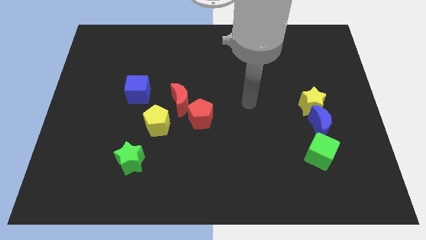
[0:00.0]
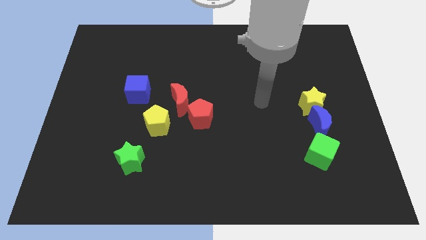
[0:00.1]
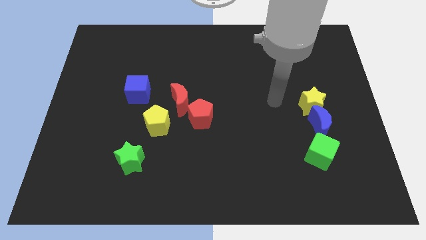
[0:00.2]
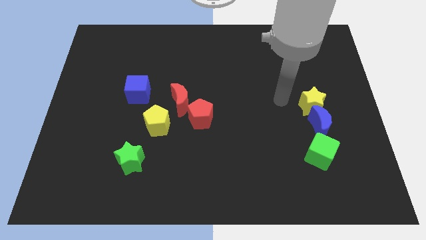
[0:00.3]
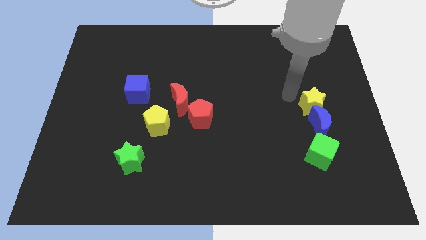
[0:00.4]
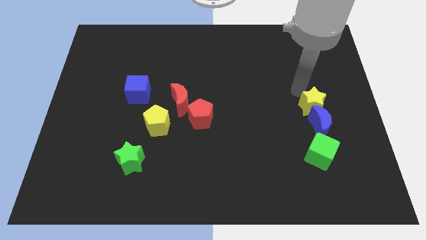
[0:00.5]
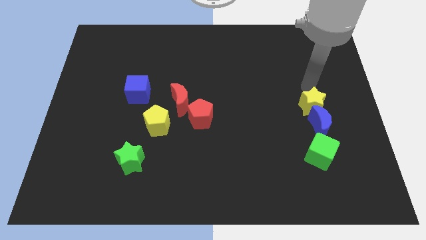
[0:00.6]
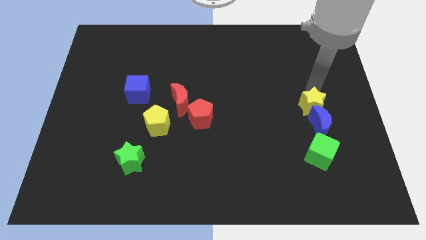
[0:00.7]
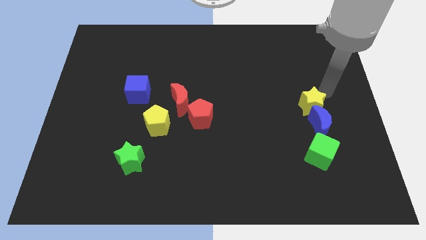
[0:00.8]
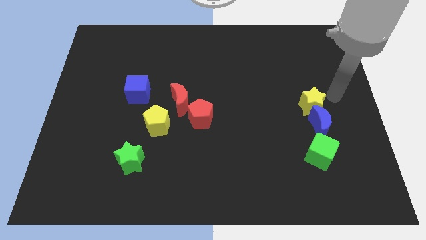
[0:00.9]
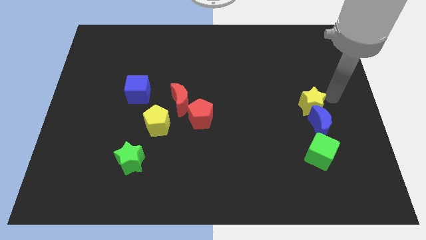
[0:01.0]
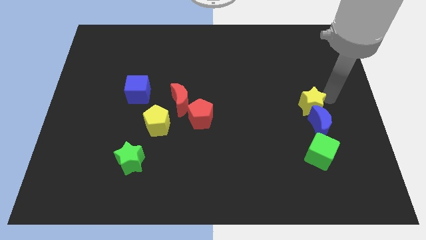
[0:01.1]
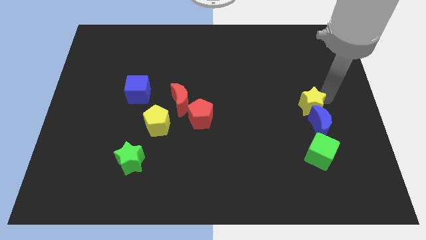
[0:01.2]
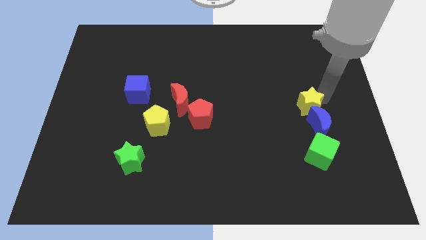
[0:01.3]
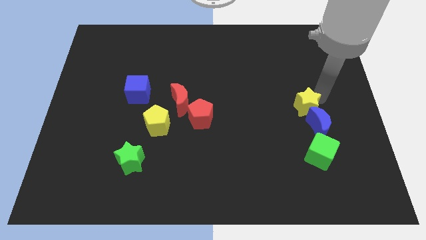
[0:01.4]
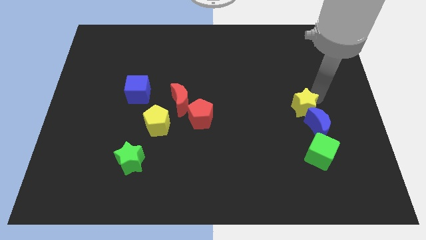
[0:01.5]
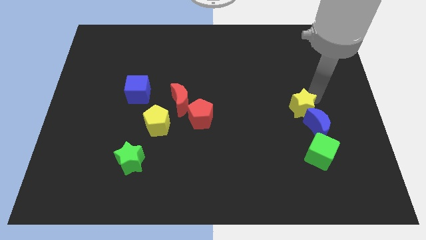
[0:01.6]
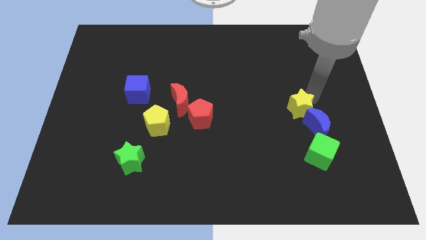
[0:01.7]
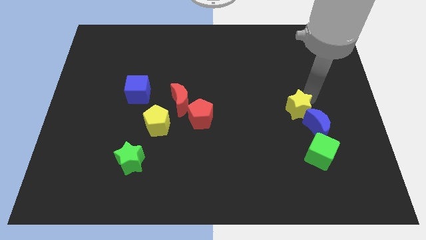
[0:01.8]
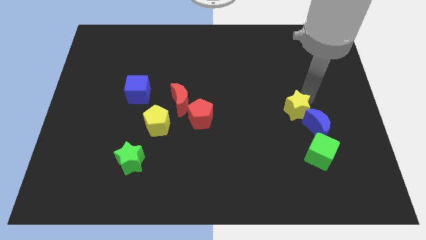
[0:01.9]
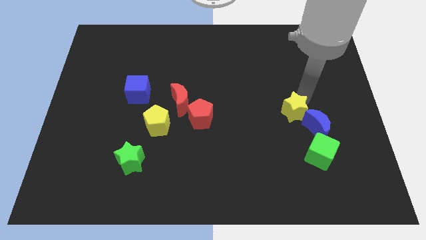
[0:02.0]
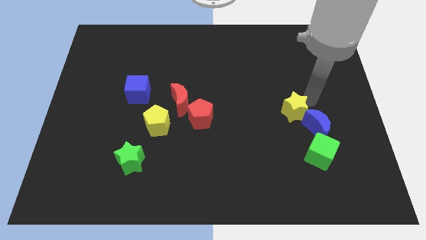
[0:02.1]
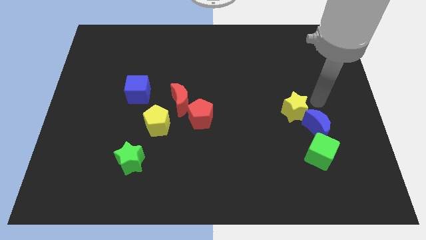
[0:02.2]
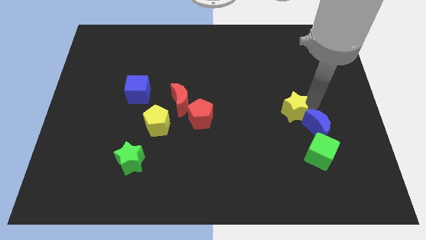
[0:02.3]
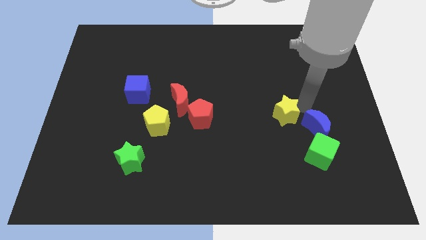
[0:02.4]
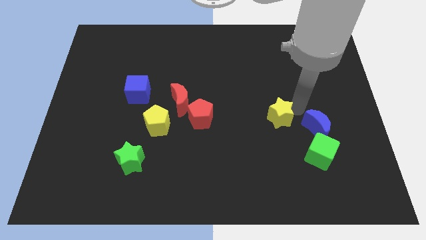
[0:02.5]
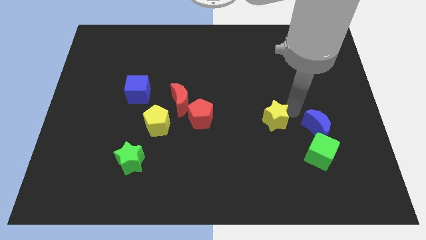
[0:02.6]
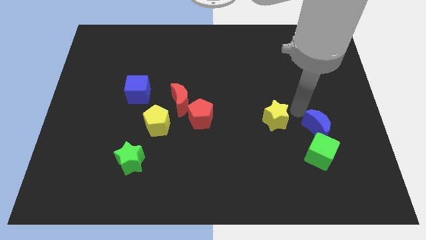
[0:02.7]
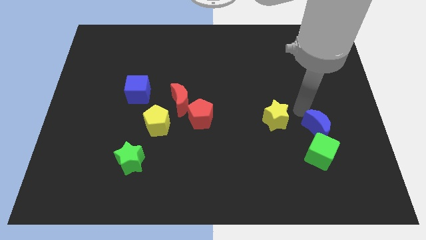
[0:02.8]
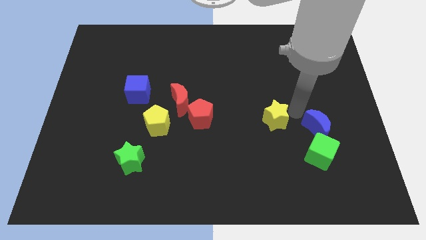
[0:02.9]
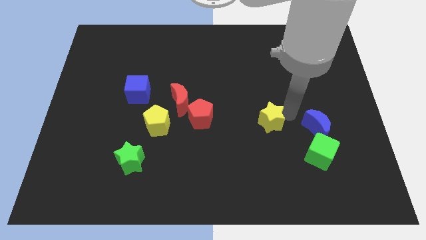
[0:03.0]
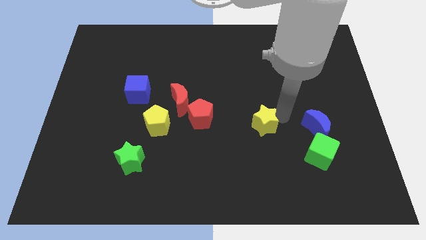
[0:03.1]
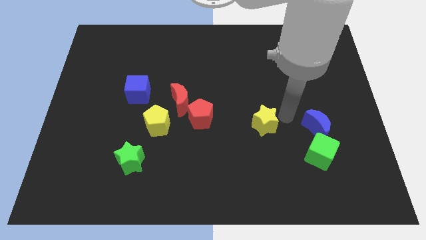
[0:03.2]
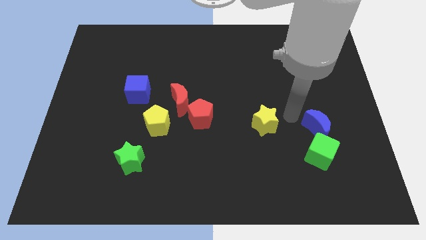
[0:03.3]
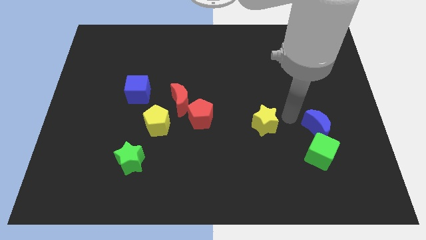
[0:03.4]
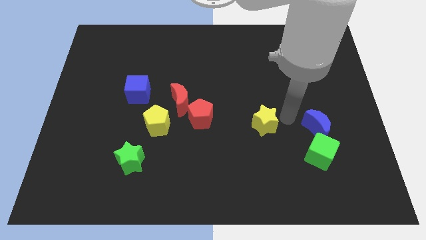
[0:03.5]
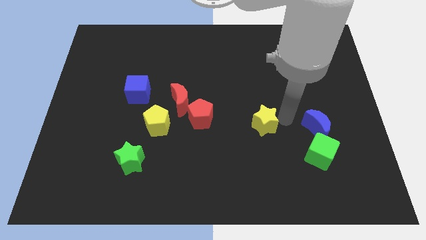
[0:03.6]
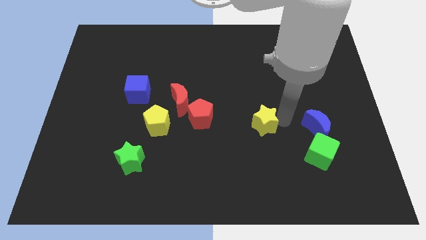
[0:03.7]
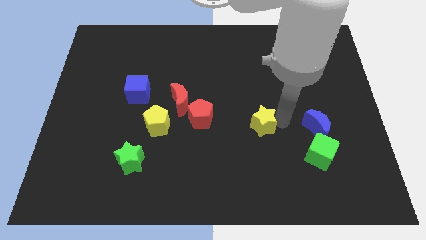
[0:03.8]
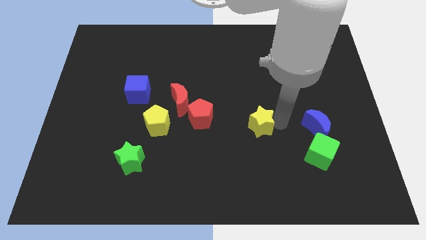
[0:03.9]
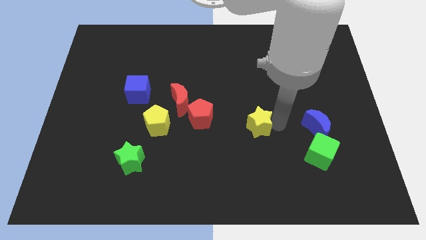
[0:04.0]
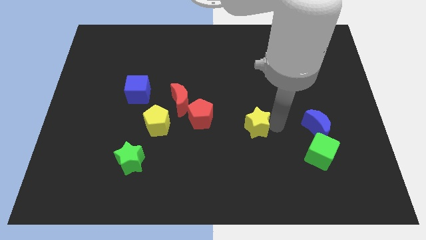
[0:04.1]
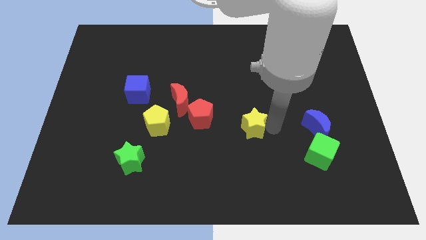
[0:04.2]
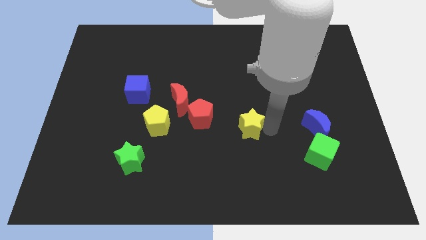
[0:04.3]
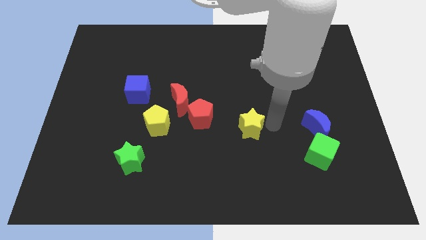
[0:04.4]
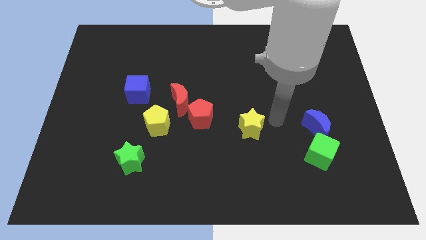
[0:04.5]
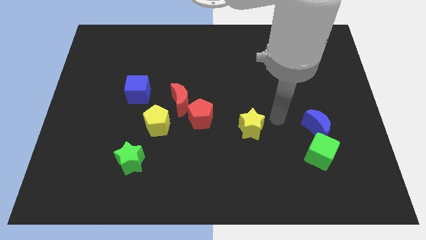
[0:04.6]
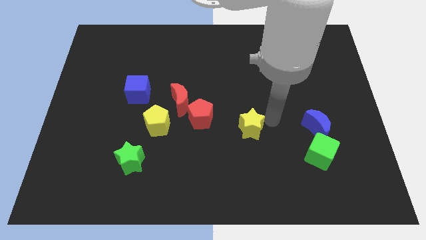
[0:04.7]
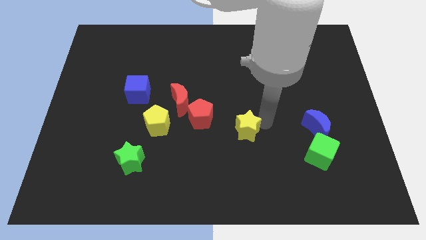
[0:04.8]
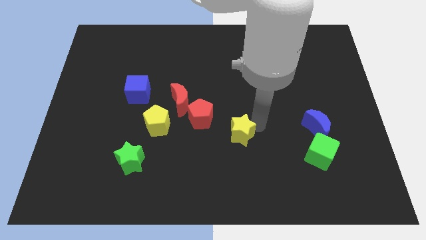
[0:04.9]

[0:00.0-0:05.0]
put the yellow star diagonally down and to the right of the red pentagon

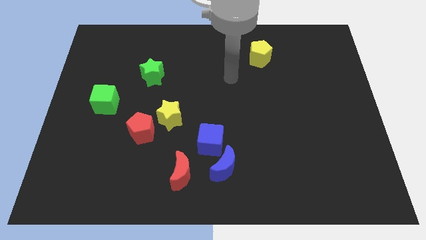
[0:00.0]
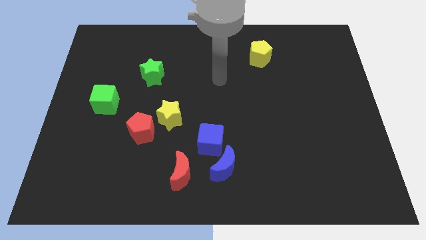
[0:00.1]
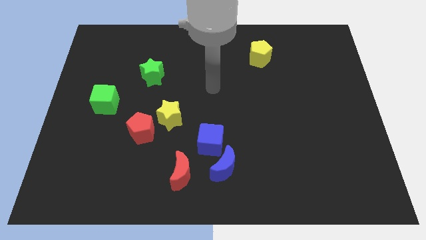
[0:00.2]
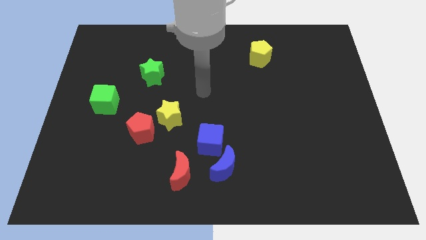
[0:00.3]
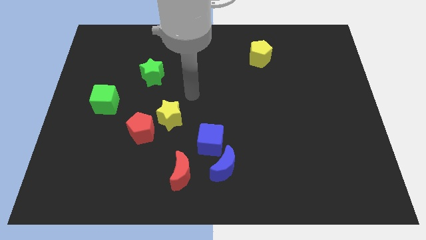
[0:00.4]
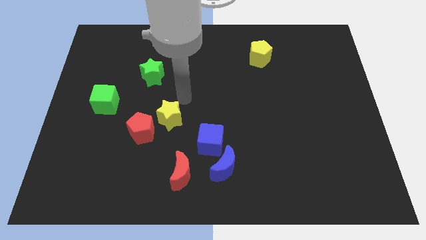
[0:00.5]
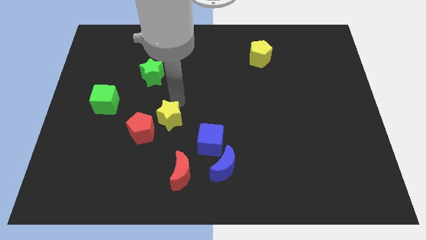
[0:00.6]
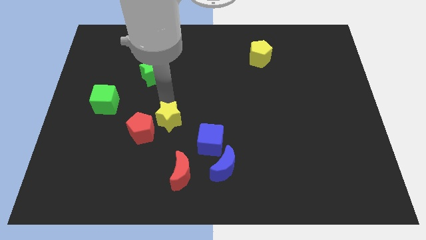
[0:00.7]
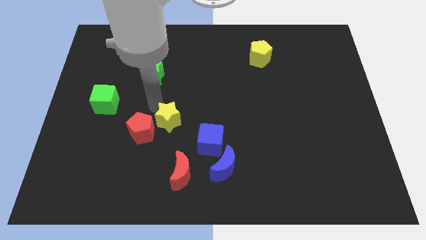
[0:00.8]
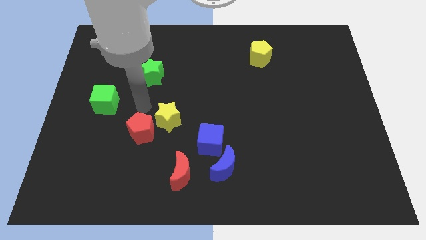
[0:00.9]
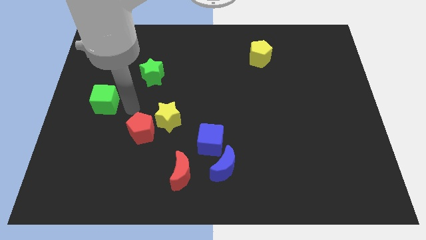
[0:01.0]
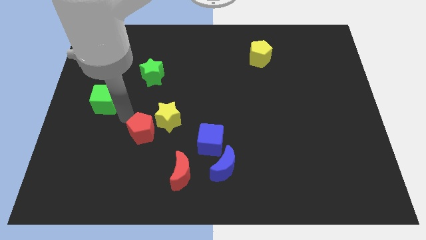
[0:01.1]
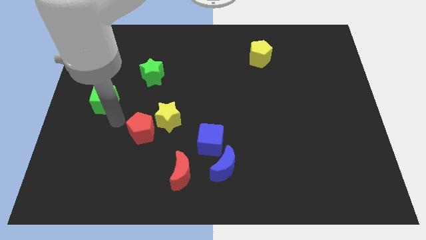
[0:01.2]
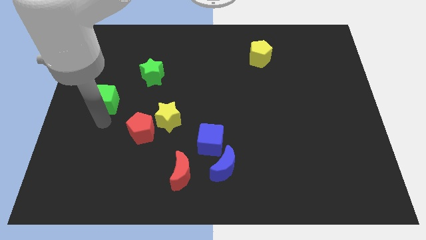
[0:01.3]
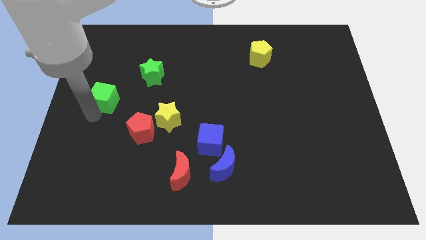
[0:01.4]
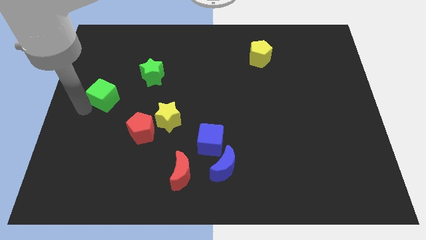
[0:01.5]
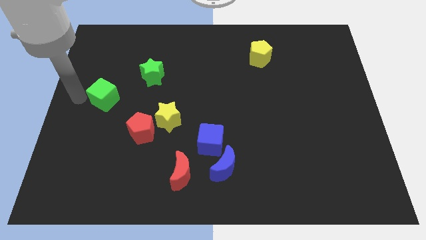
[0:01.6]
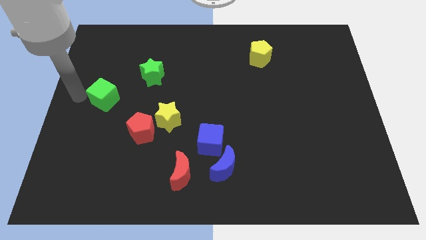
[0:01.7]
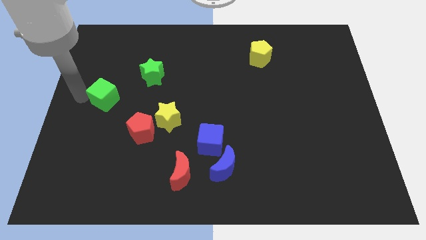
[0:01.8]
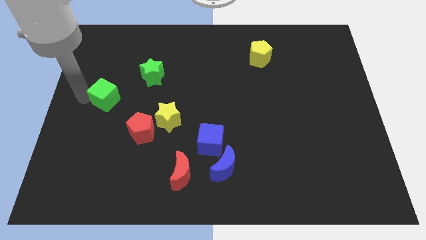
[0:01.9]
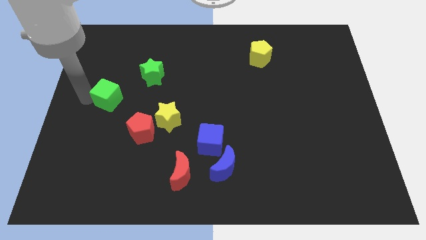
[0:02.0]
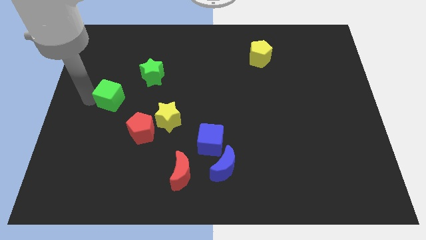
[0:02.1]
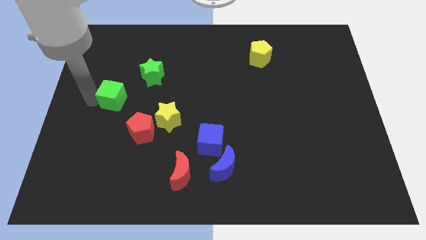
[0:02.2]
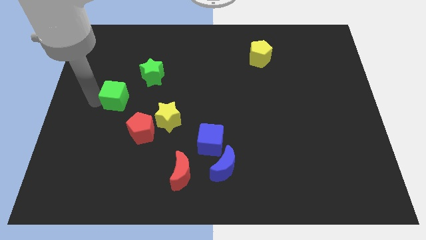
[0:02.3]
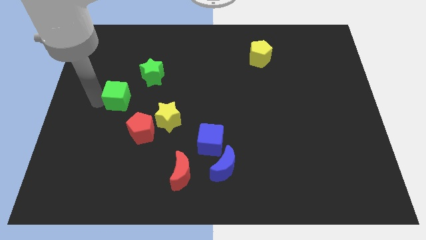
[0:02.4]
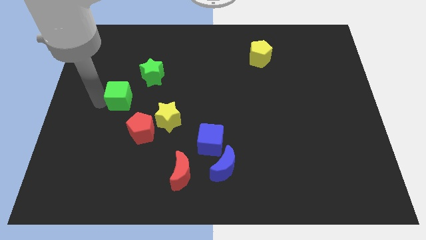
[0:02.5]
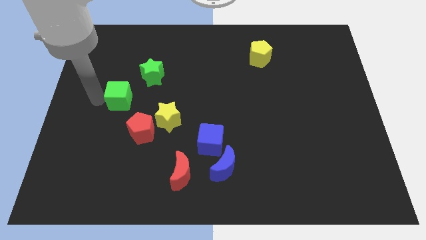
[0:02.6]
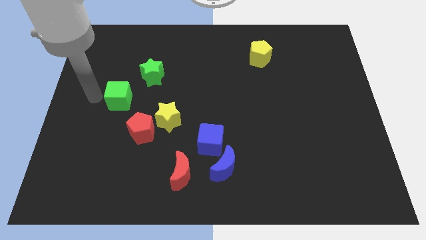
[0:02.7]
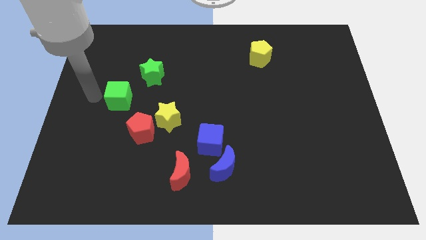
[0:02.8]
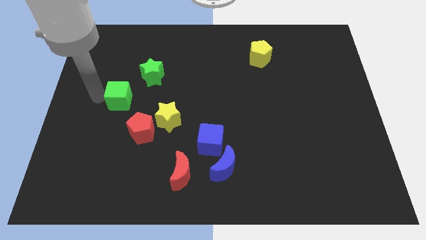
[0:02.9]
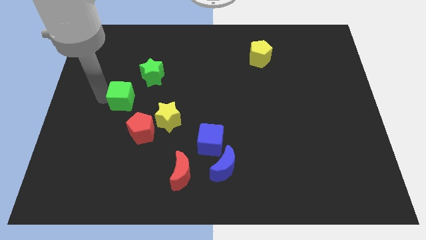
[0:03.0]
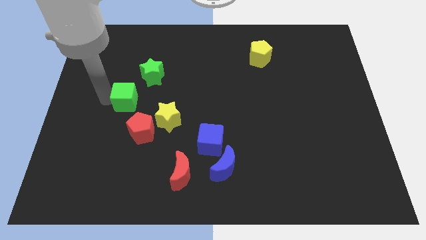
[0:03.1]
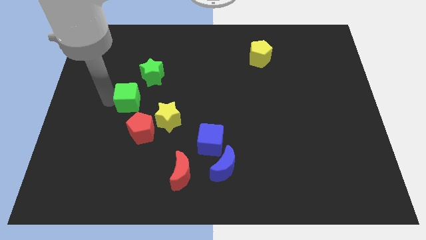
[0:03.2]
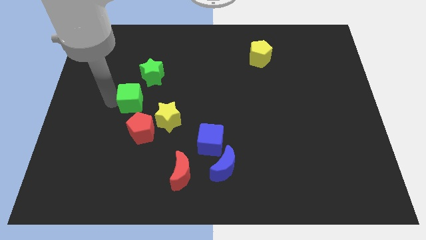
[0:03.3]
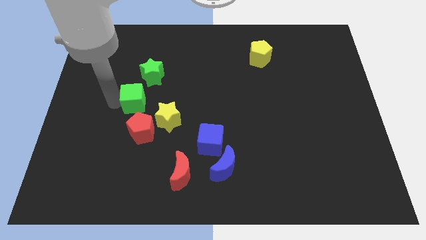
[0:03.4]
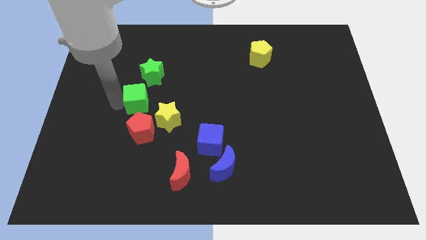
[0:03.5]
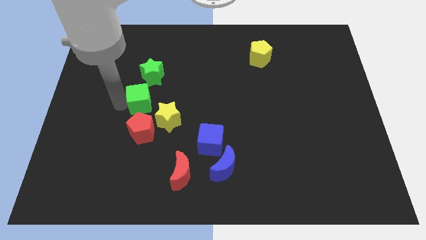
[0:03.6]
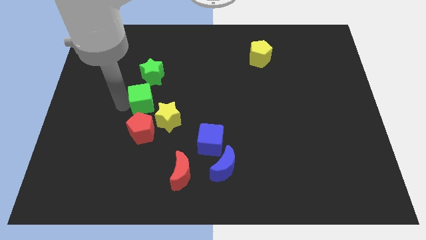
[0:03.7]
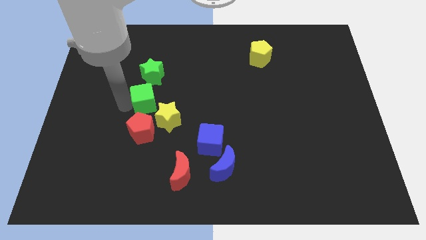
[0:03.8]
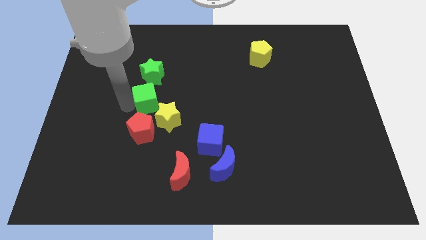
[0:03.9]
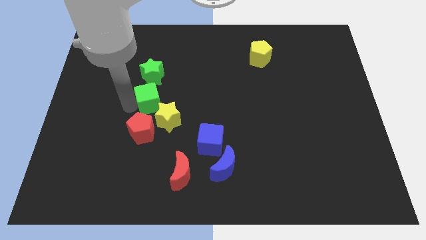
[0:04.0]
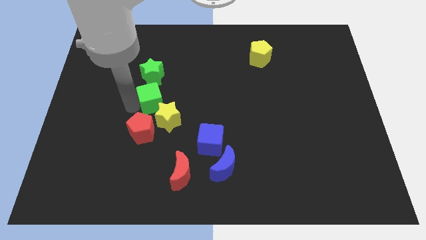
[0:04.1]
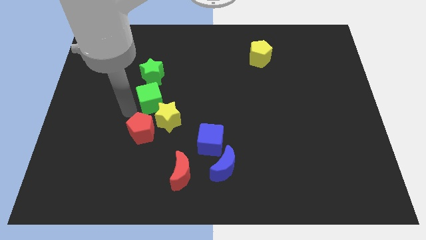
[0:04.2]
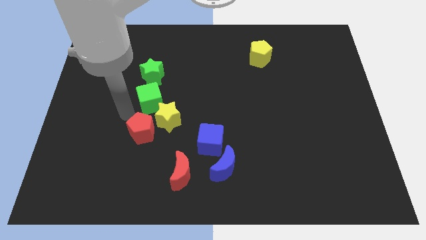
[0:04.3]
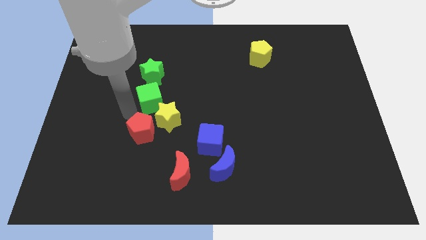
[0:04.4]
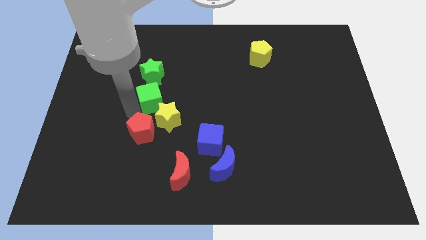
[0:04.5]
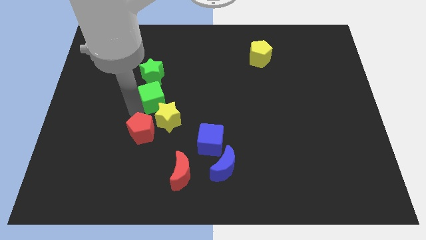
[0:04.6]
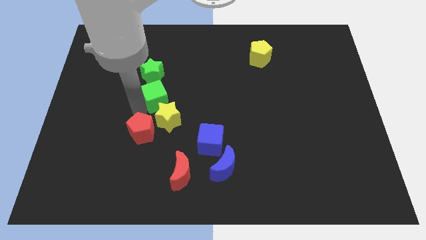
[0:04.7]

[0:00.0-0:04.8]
move the green cube diagonally down and to the right of the green star
